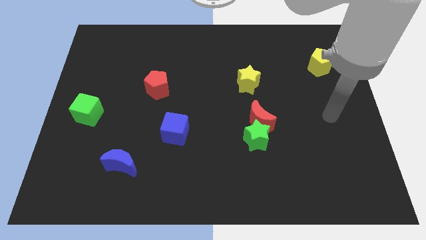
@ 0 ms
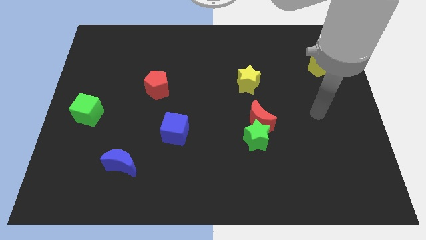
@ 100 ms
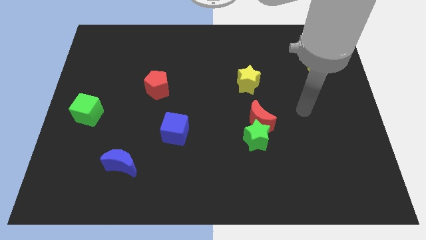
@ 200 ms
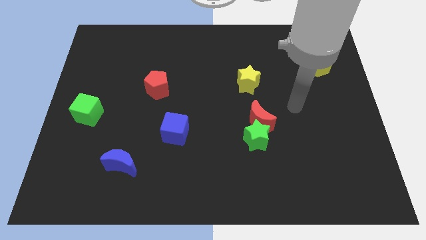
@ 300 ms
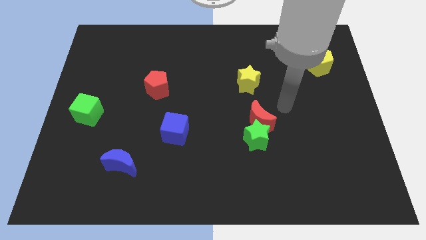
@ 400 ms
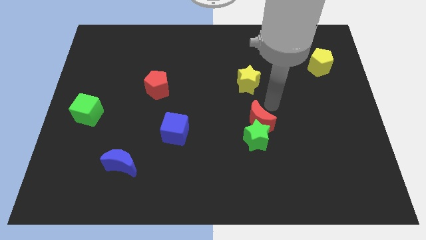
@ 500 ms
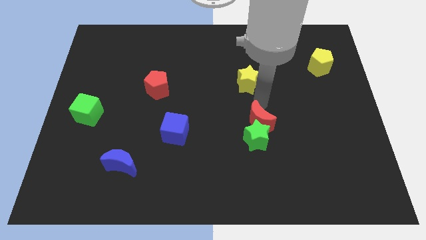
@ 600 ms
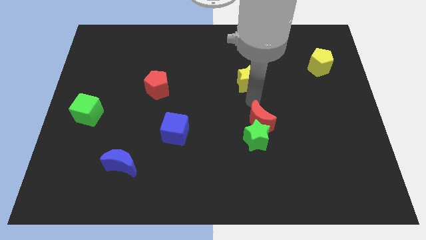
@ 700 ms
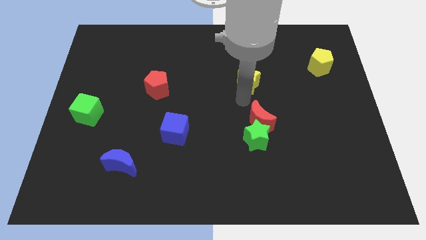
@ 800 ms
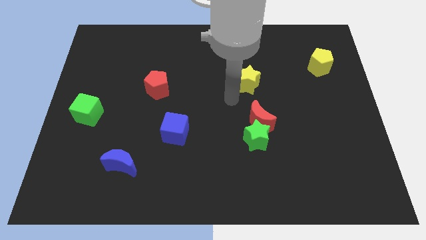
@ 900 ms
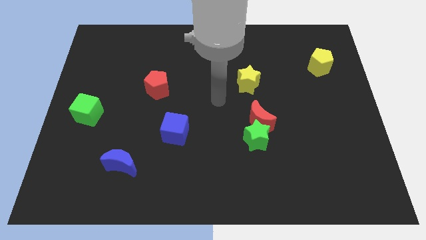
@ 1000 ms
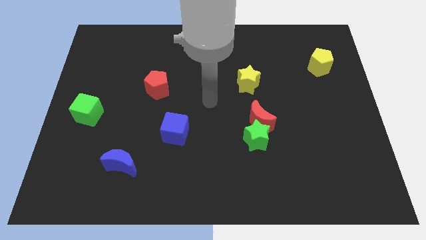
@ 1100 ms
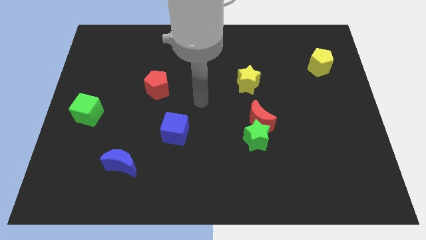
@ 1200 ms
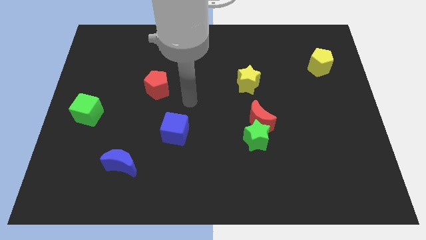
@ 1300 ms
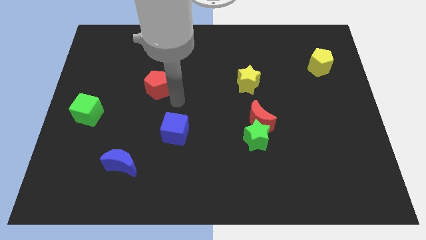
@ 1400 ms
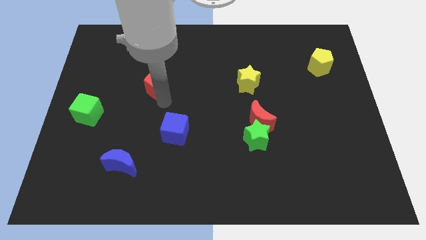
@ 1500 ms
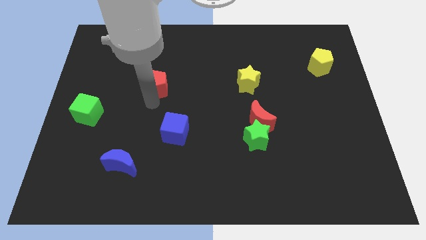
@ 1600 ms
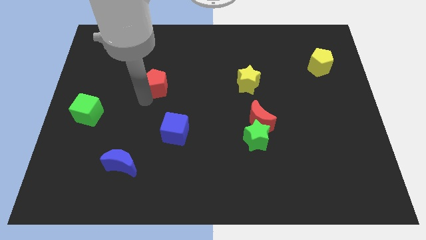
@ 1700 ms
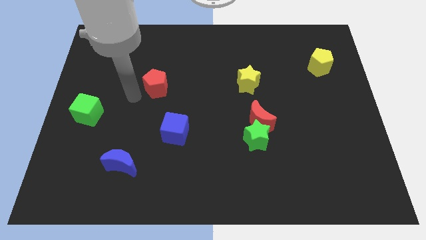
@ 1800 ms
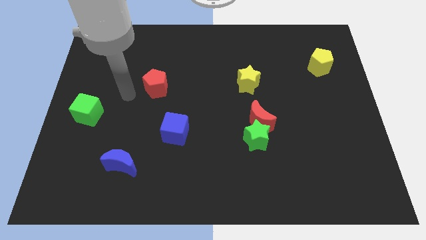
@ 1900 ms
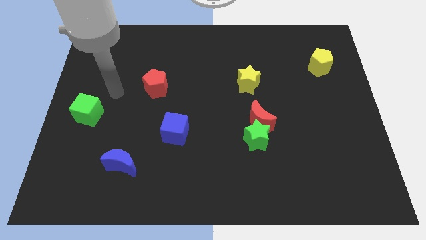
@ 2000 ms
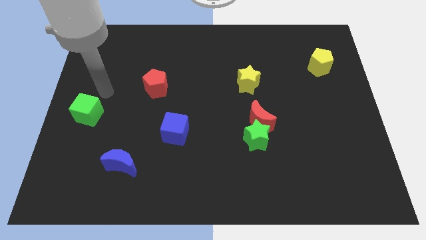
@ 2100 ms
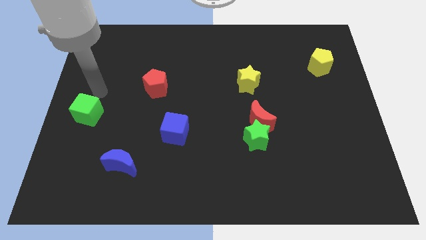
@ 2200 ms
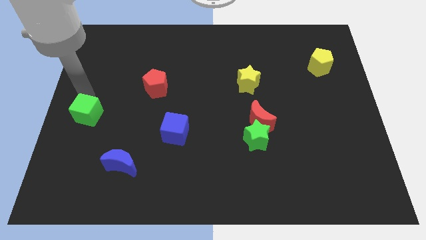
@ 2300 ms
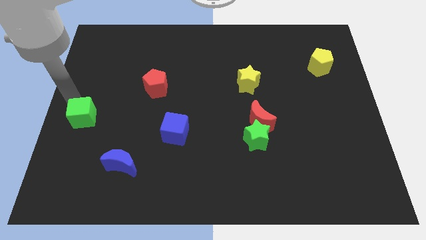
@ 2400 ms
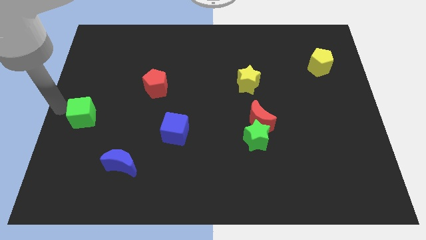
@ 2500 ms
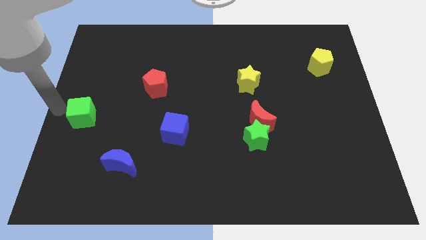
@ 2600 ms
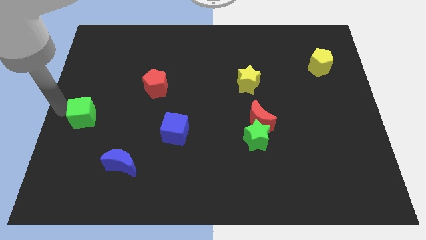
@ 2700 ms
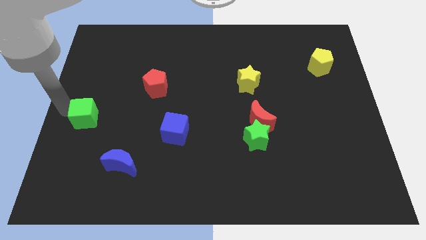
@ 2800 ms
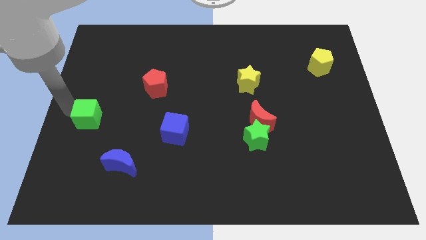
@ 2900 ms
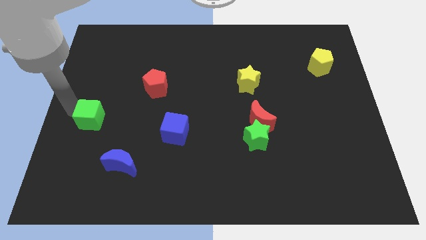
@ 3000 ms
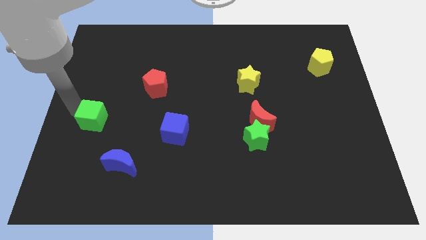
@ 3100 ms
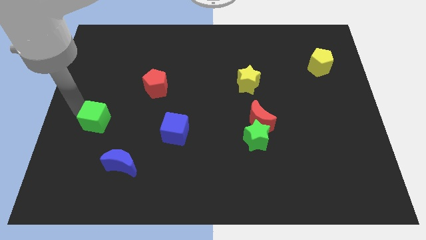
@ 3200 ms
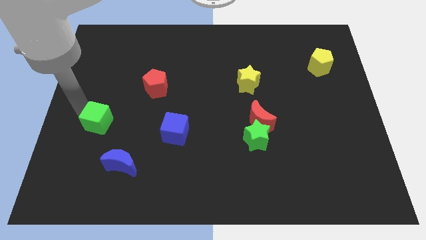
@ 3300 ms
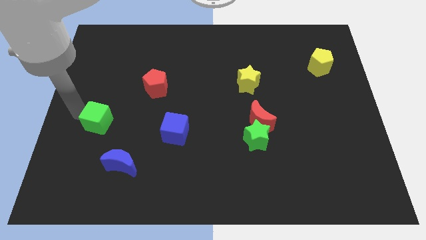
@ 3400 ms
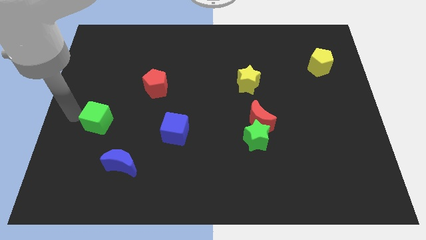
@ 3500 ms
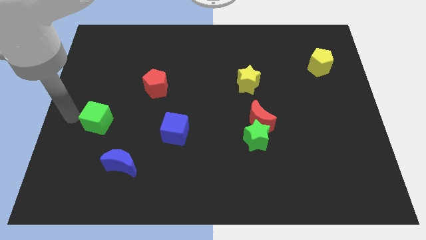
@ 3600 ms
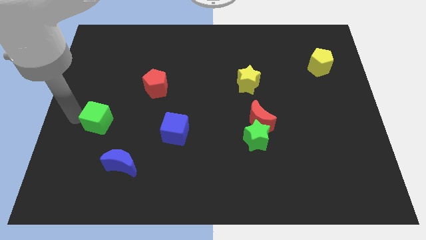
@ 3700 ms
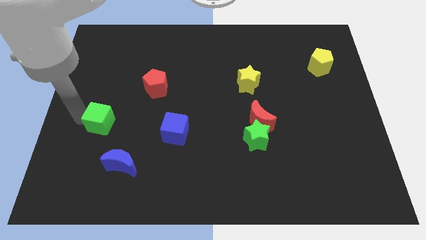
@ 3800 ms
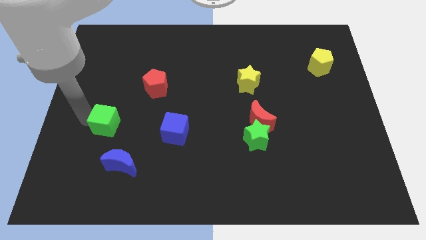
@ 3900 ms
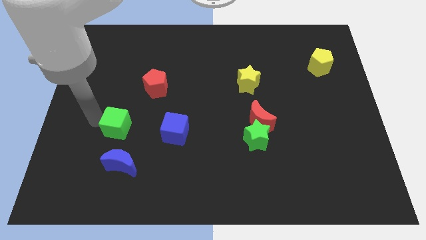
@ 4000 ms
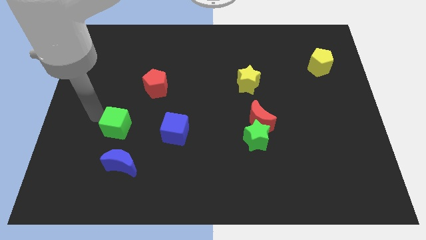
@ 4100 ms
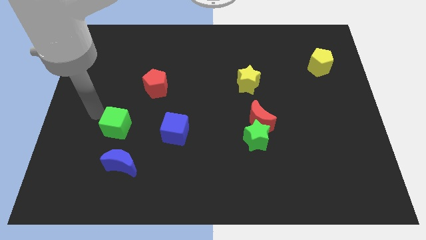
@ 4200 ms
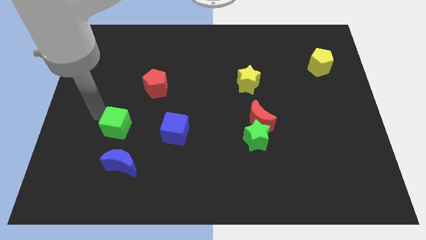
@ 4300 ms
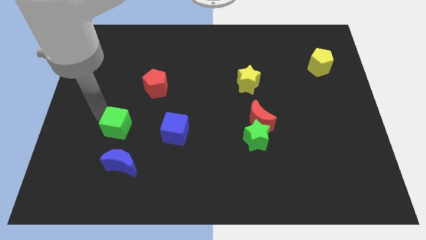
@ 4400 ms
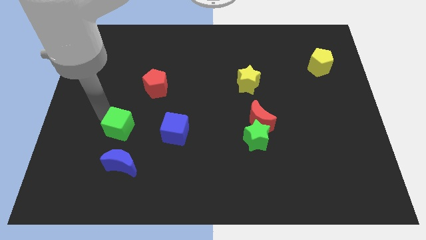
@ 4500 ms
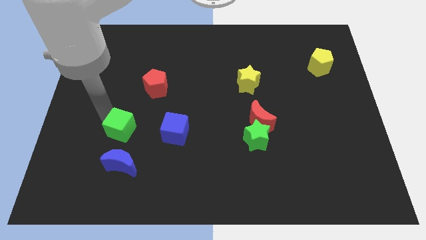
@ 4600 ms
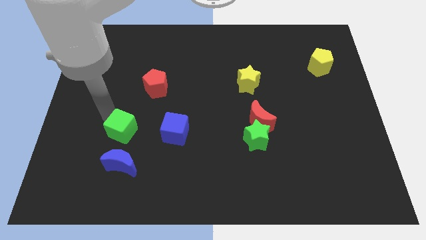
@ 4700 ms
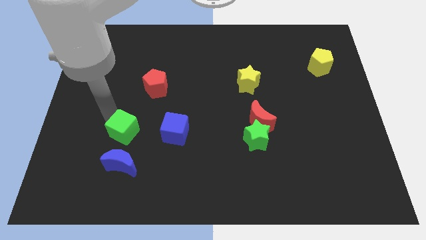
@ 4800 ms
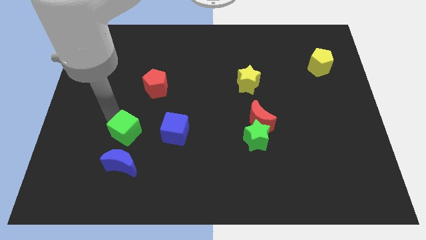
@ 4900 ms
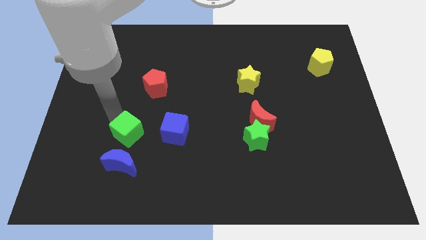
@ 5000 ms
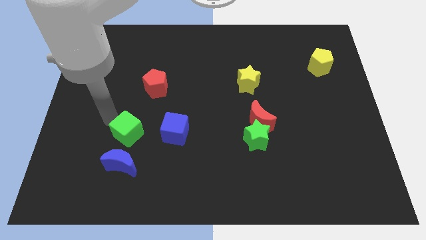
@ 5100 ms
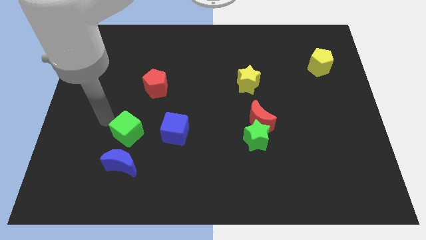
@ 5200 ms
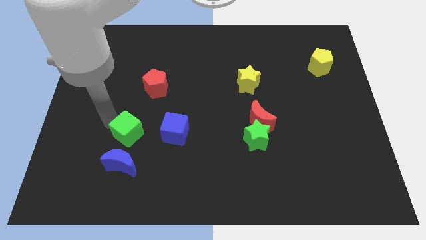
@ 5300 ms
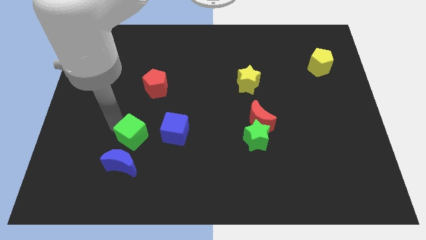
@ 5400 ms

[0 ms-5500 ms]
move the green cube diagonally up and to the right of the blue moon

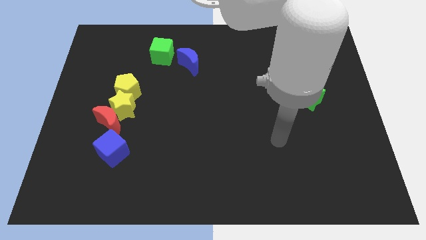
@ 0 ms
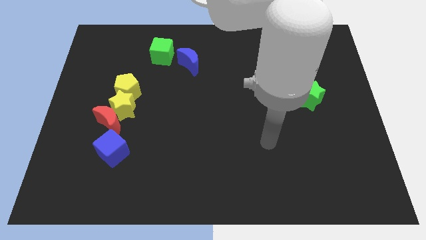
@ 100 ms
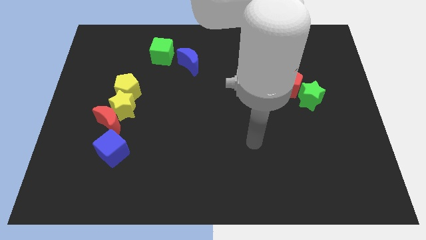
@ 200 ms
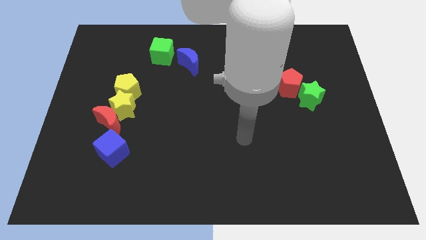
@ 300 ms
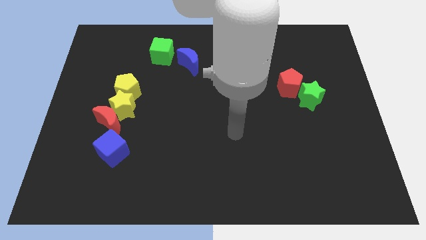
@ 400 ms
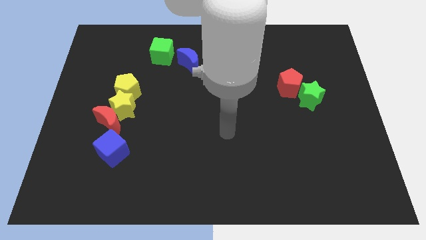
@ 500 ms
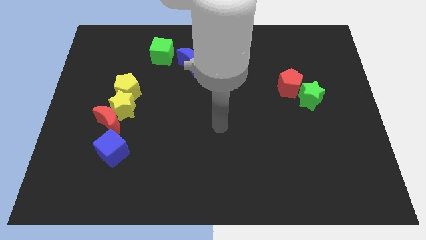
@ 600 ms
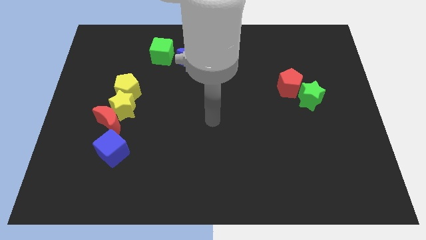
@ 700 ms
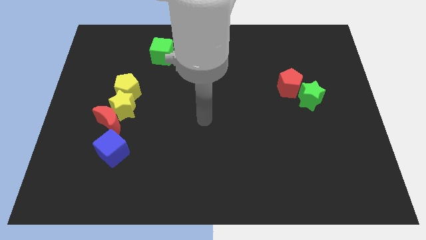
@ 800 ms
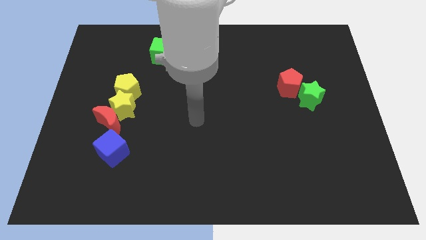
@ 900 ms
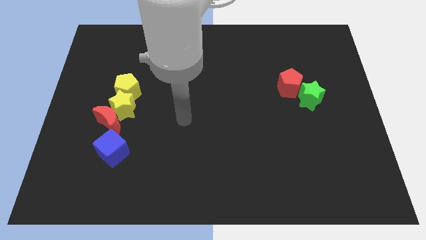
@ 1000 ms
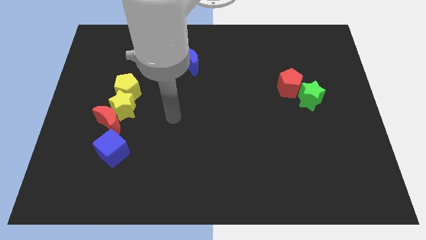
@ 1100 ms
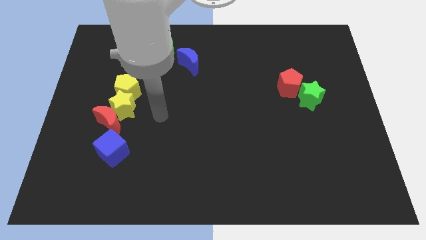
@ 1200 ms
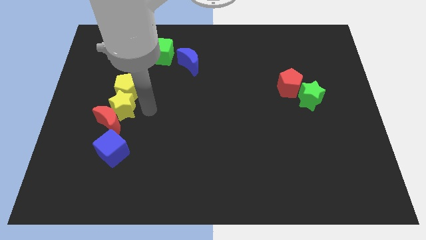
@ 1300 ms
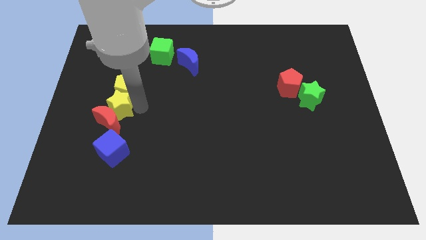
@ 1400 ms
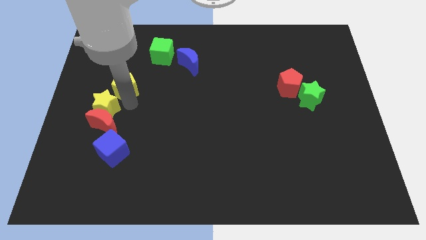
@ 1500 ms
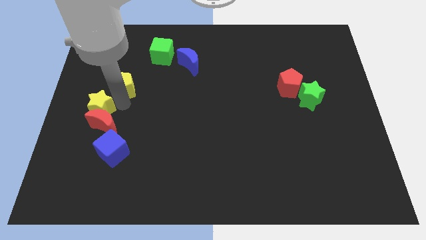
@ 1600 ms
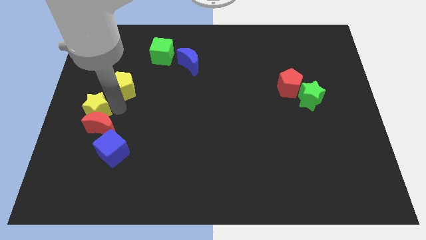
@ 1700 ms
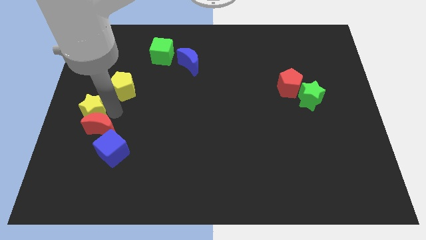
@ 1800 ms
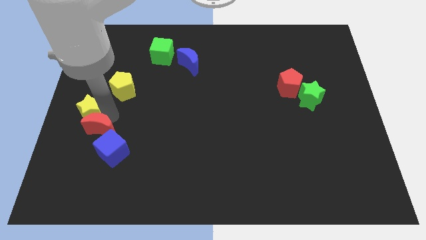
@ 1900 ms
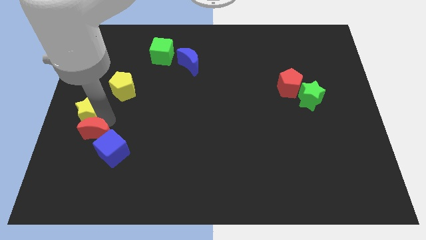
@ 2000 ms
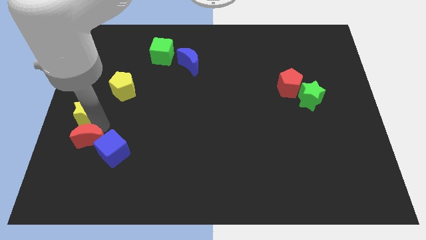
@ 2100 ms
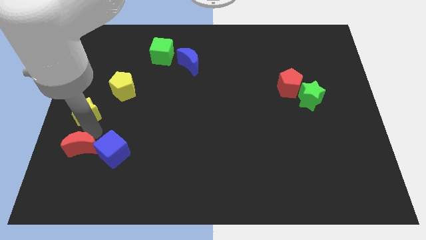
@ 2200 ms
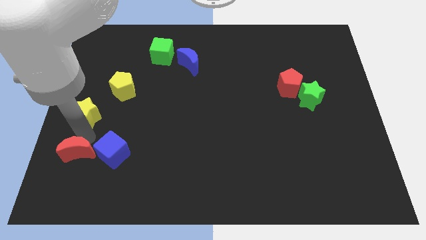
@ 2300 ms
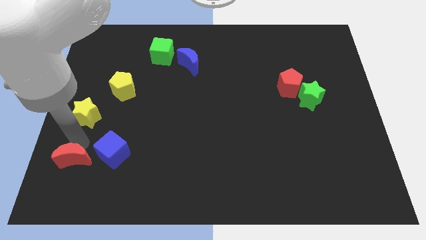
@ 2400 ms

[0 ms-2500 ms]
slide the red moon diagonally down and to the left of the blue cube
